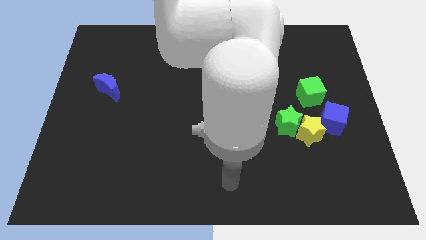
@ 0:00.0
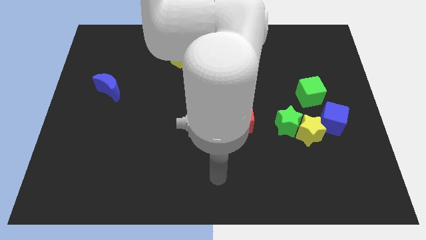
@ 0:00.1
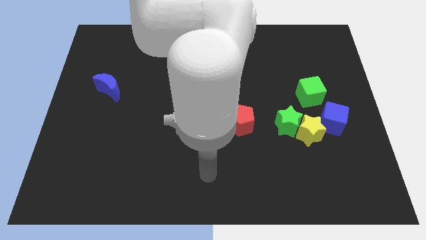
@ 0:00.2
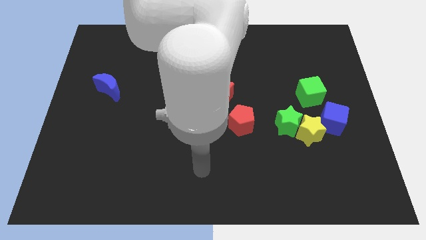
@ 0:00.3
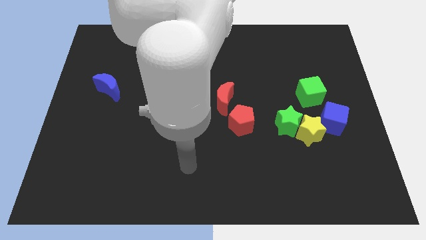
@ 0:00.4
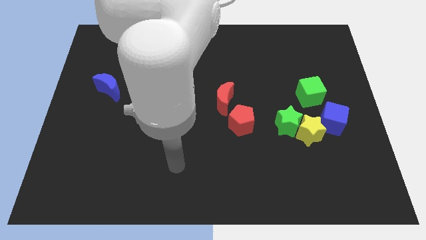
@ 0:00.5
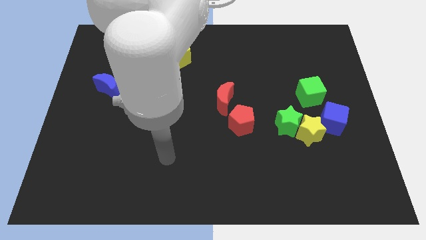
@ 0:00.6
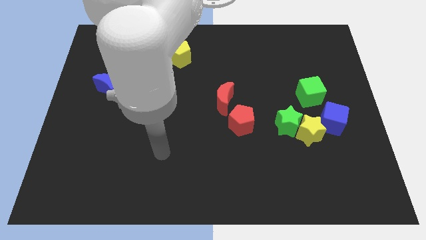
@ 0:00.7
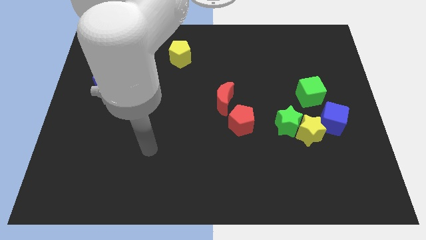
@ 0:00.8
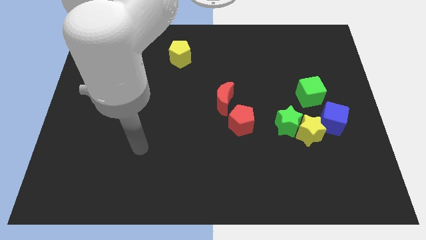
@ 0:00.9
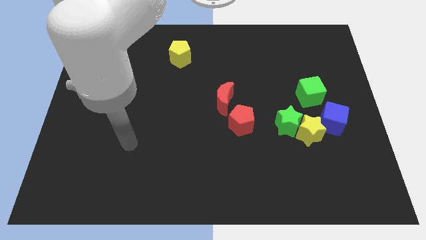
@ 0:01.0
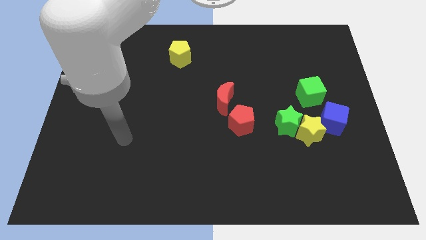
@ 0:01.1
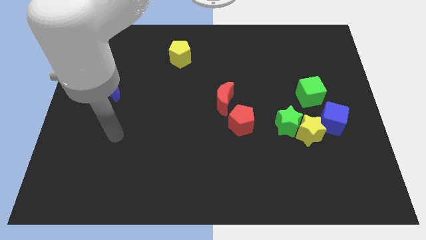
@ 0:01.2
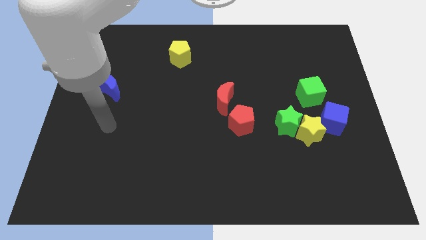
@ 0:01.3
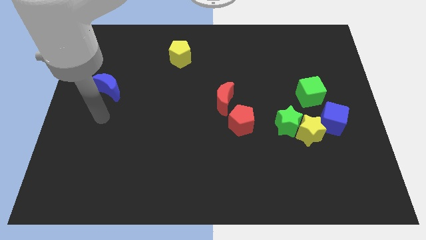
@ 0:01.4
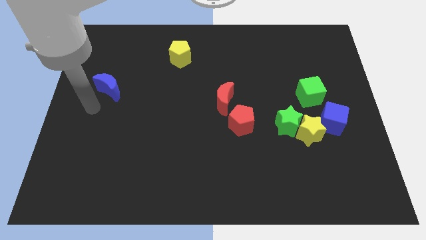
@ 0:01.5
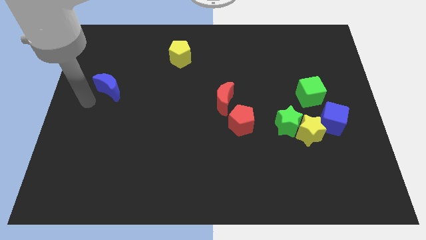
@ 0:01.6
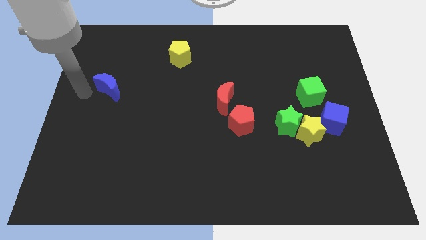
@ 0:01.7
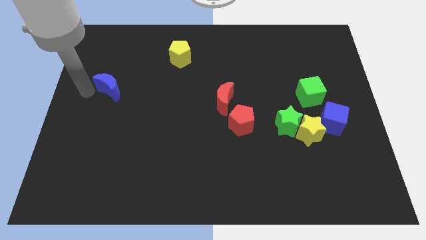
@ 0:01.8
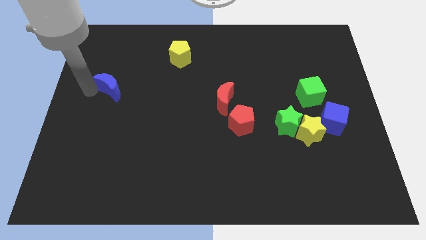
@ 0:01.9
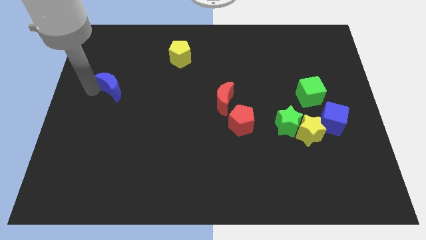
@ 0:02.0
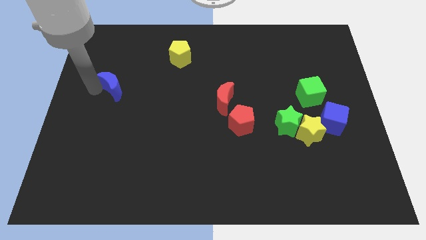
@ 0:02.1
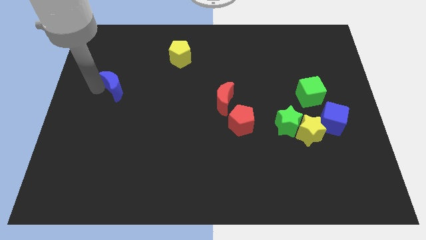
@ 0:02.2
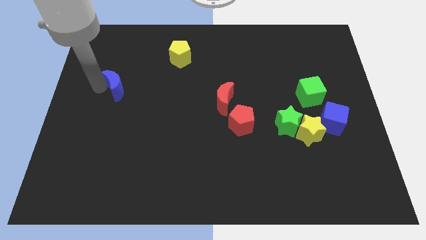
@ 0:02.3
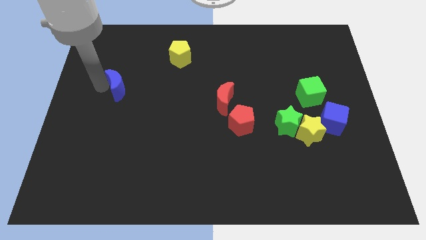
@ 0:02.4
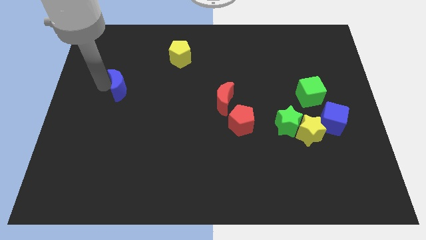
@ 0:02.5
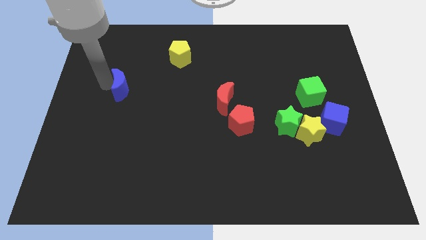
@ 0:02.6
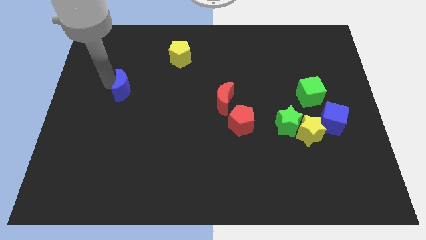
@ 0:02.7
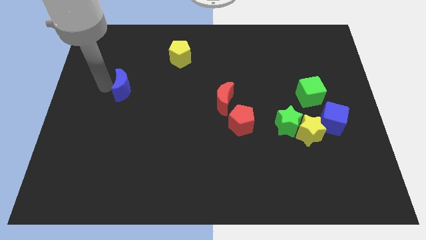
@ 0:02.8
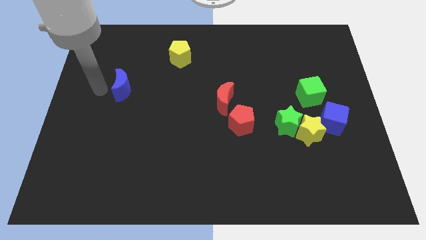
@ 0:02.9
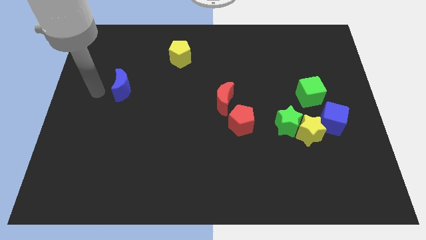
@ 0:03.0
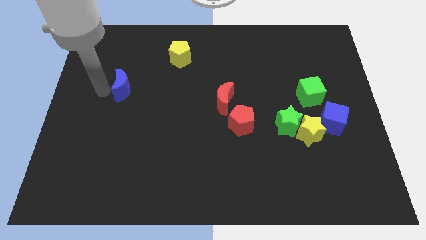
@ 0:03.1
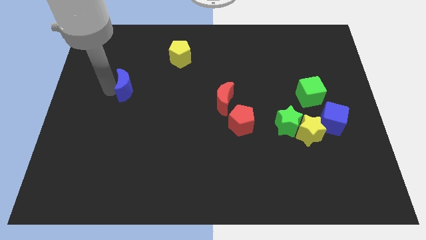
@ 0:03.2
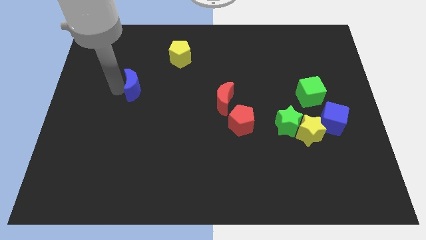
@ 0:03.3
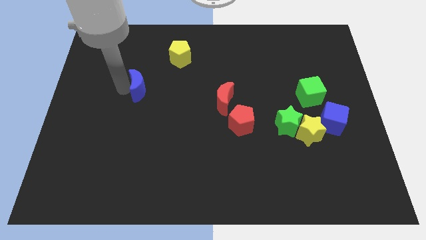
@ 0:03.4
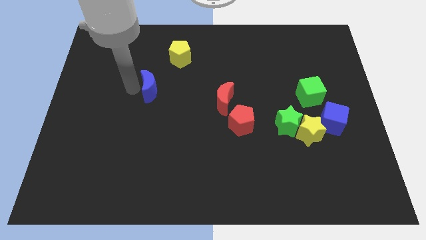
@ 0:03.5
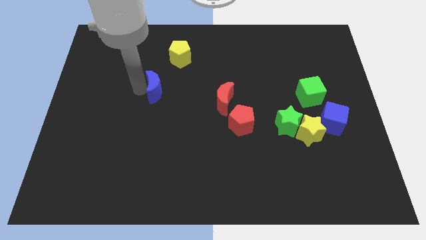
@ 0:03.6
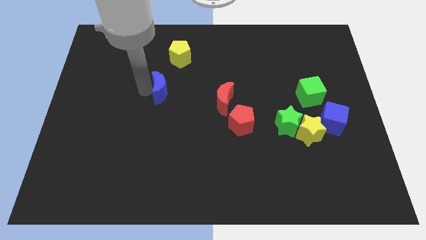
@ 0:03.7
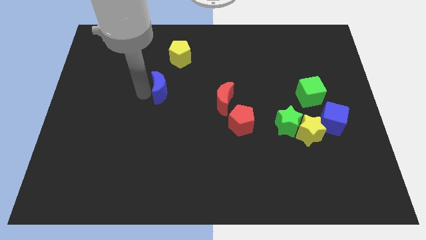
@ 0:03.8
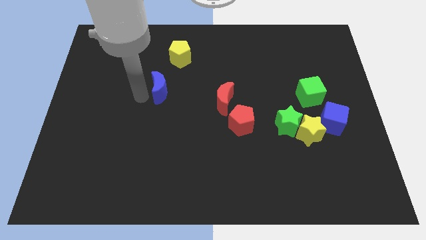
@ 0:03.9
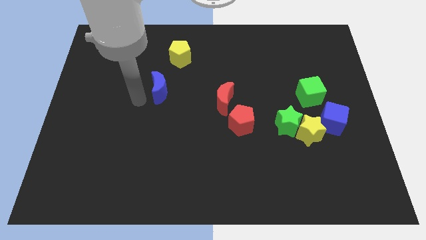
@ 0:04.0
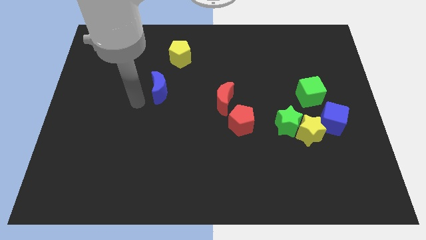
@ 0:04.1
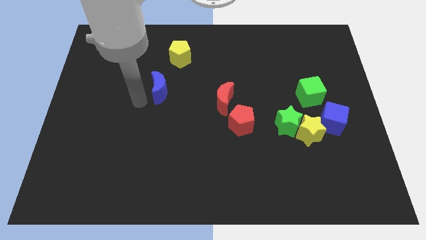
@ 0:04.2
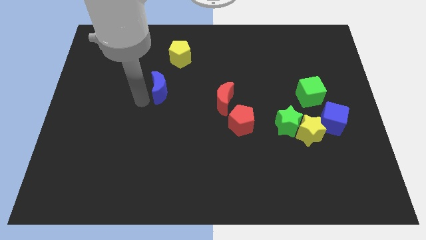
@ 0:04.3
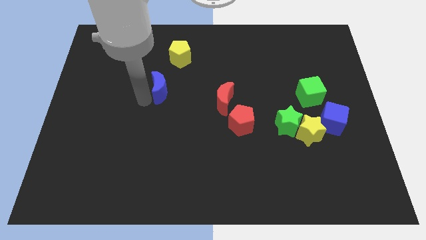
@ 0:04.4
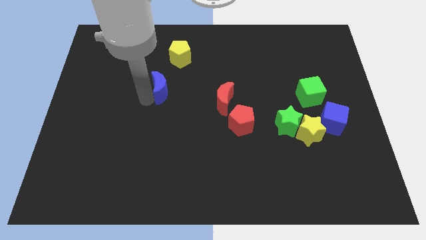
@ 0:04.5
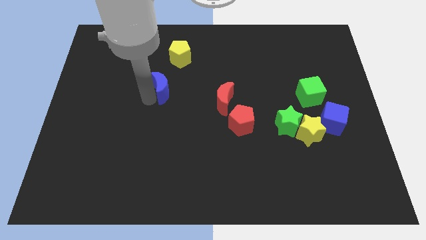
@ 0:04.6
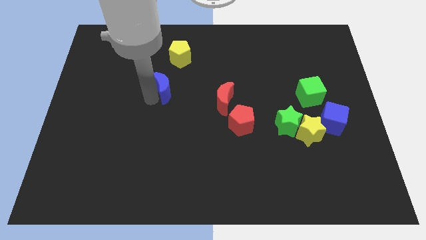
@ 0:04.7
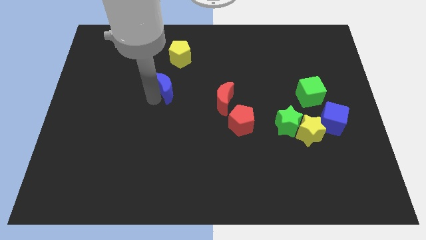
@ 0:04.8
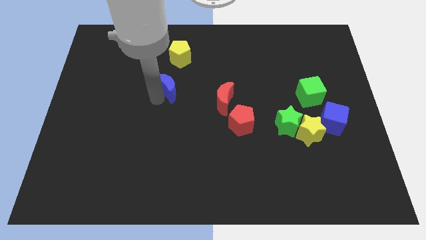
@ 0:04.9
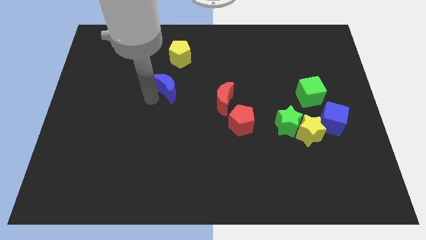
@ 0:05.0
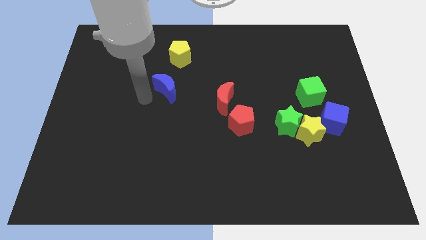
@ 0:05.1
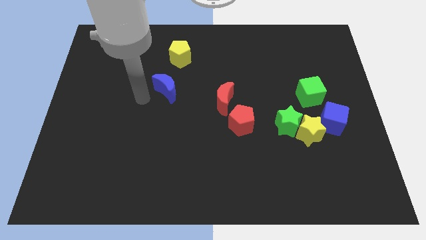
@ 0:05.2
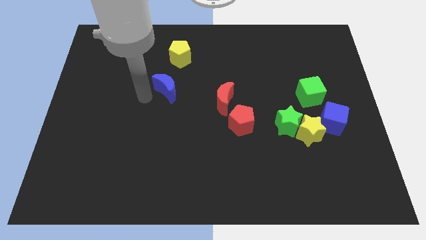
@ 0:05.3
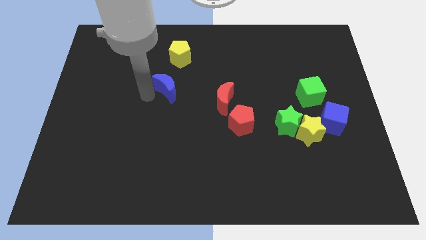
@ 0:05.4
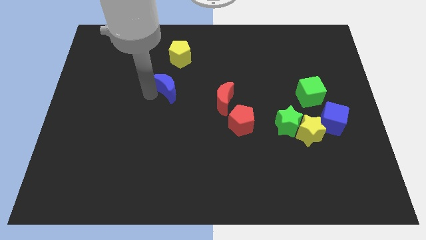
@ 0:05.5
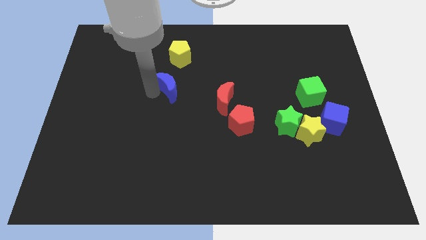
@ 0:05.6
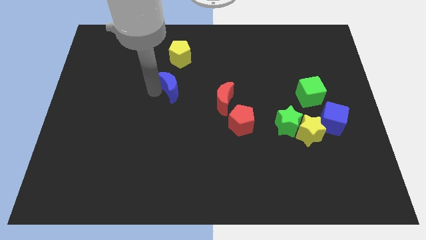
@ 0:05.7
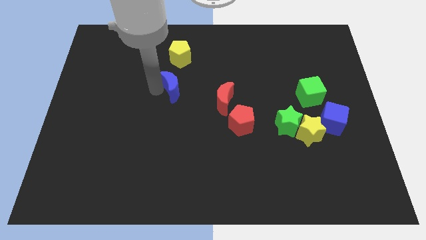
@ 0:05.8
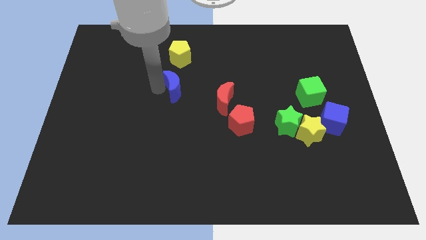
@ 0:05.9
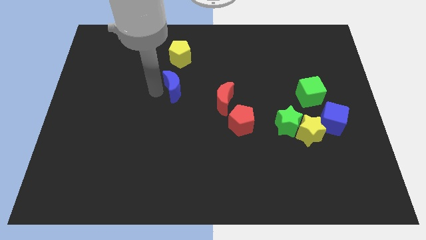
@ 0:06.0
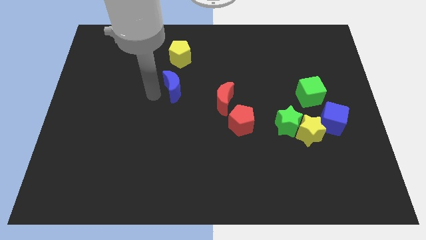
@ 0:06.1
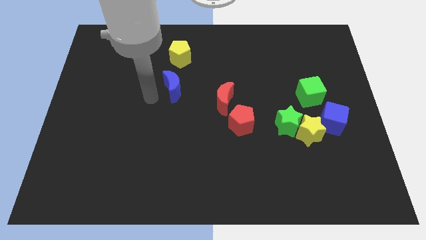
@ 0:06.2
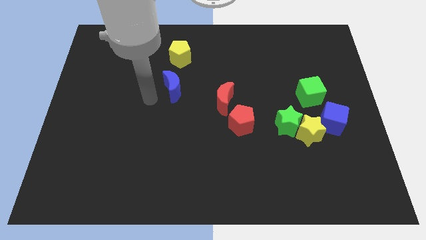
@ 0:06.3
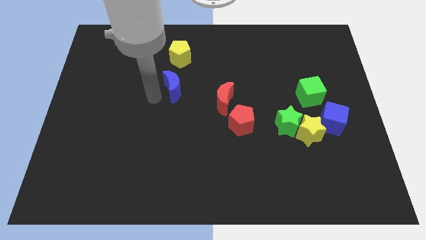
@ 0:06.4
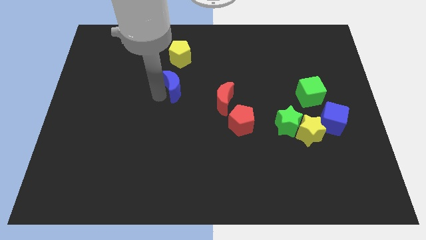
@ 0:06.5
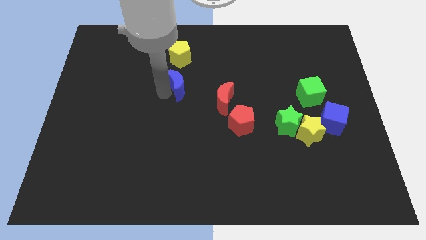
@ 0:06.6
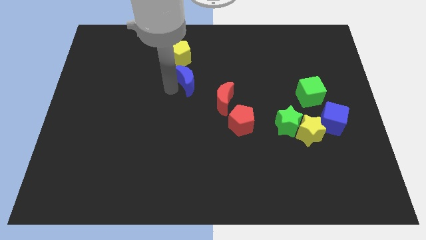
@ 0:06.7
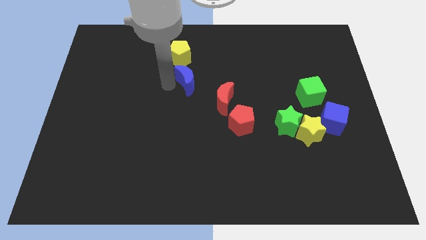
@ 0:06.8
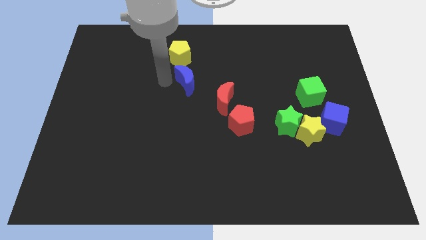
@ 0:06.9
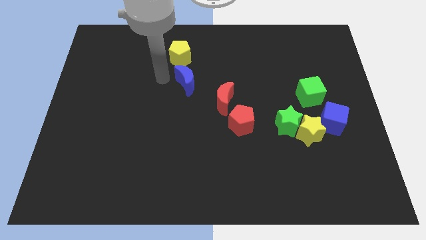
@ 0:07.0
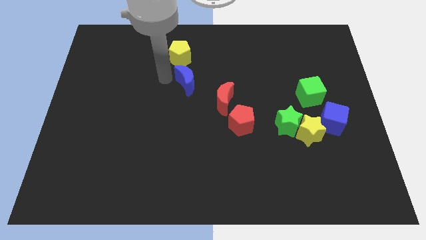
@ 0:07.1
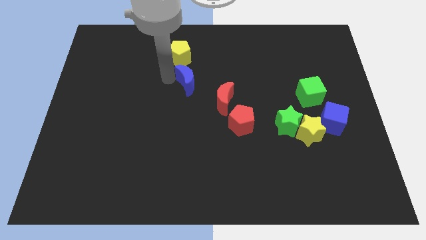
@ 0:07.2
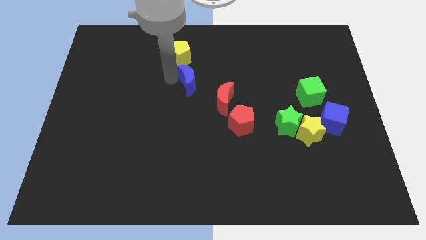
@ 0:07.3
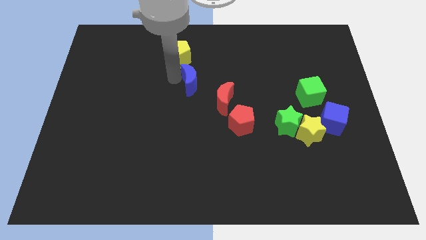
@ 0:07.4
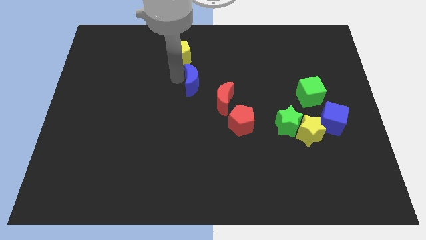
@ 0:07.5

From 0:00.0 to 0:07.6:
slide the blue moon right

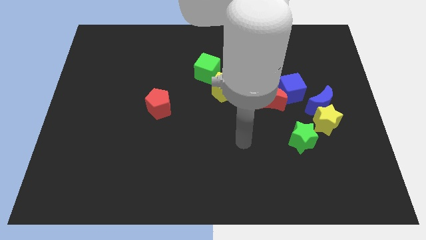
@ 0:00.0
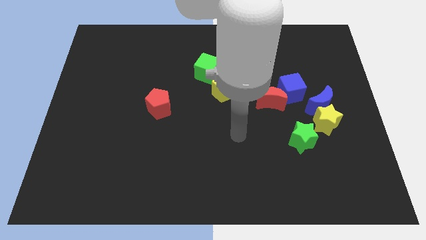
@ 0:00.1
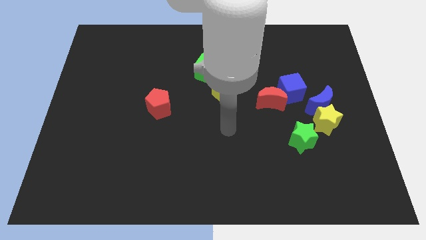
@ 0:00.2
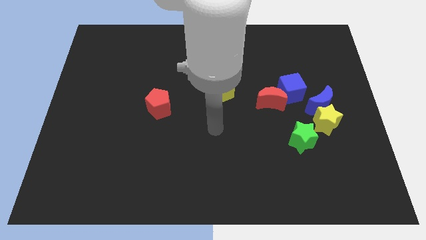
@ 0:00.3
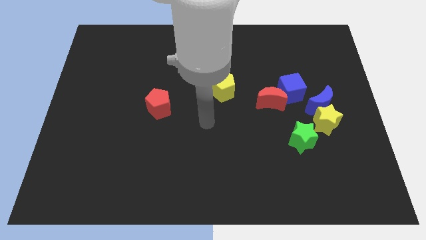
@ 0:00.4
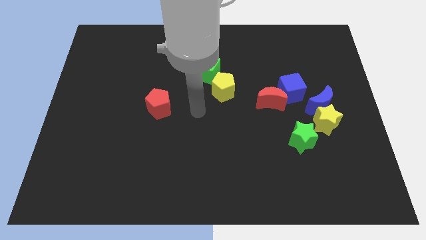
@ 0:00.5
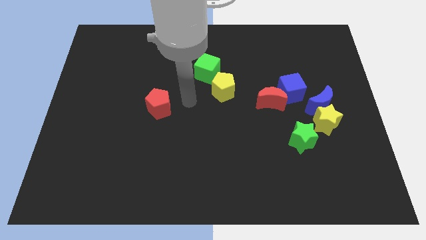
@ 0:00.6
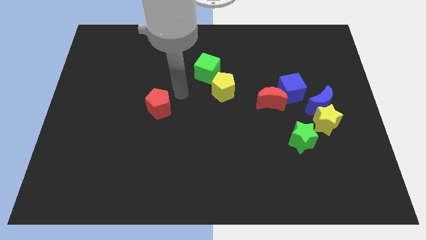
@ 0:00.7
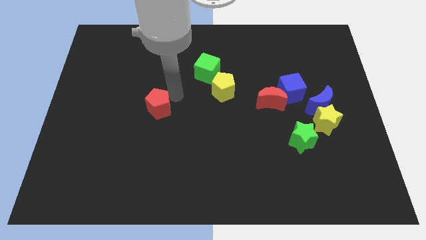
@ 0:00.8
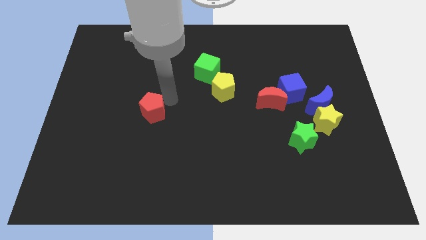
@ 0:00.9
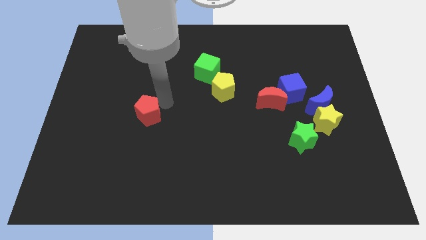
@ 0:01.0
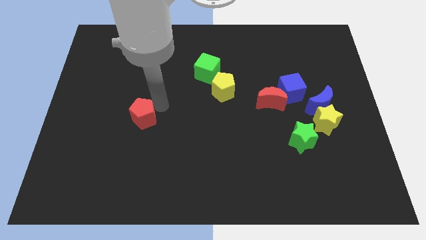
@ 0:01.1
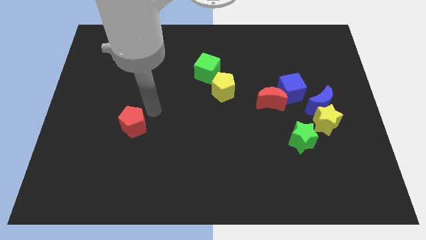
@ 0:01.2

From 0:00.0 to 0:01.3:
slightly slide the red pentagon diagonally downwards and left
